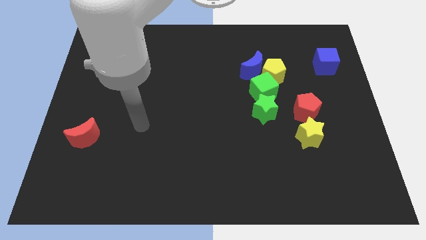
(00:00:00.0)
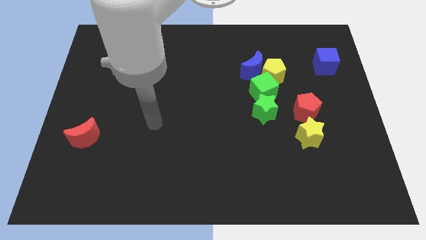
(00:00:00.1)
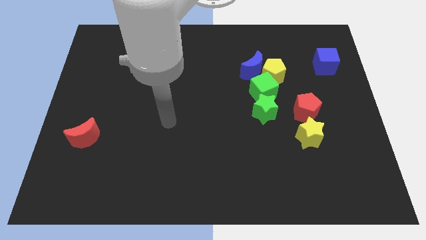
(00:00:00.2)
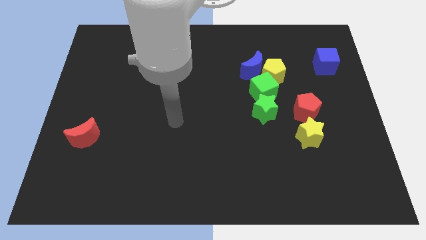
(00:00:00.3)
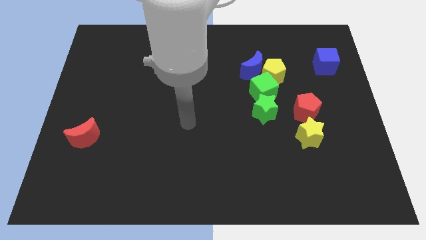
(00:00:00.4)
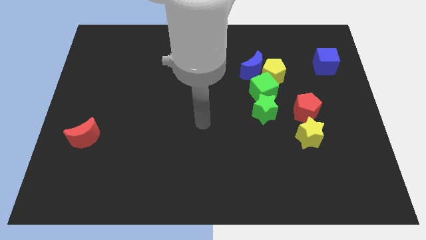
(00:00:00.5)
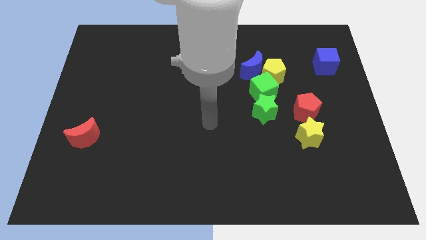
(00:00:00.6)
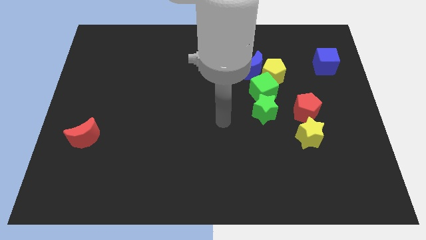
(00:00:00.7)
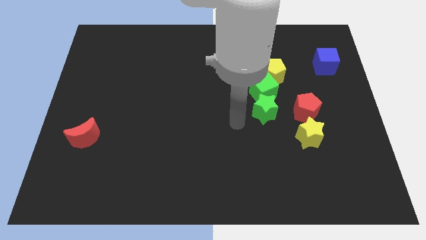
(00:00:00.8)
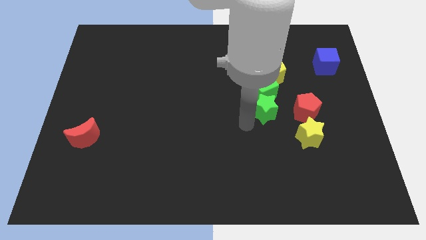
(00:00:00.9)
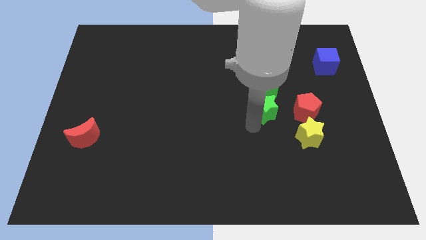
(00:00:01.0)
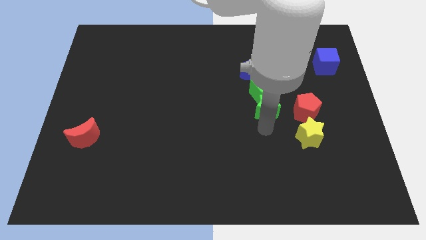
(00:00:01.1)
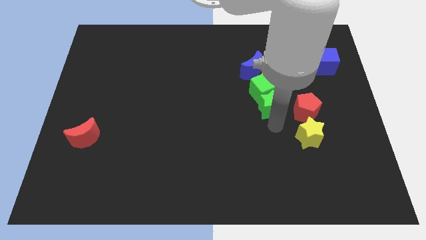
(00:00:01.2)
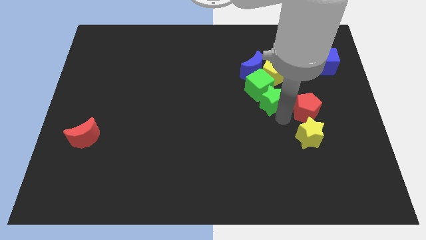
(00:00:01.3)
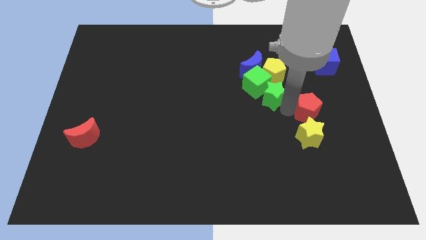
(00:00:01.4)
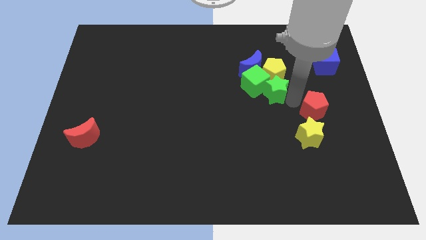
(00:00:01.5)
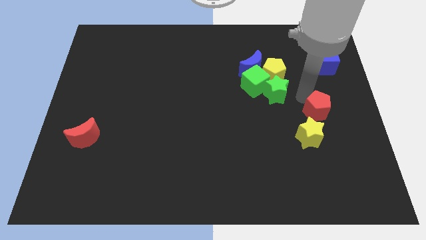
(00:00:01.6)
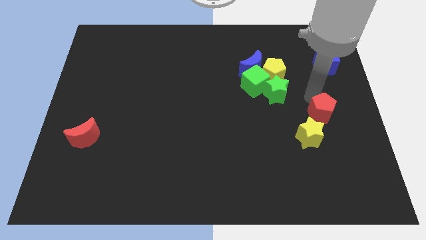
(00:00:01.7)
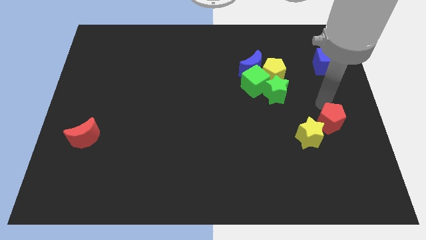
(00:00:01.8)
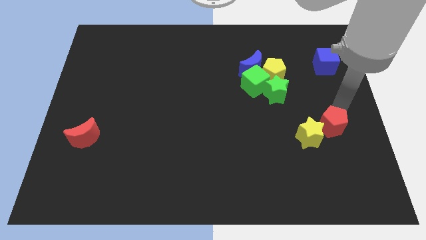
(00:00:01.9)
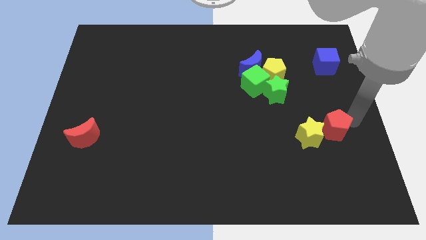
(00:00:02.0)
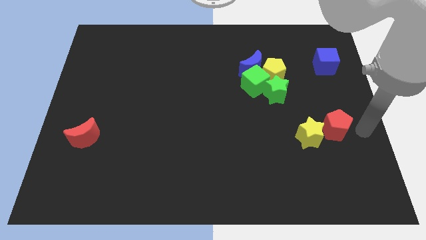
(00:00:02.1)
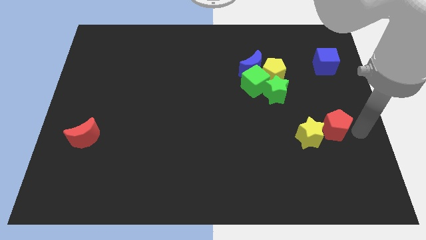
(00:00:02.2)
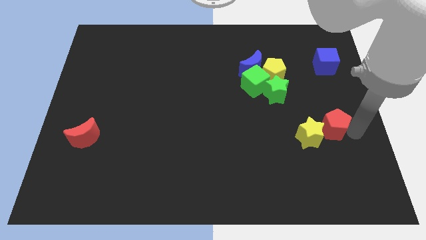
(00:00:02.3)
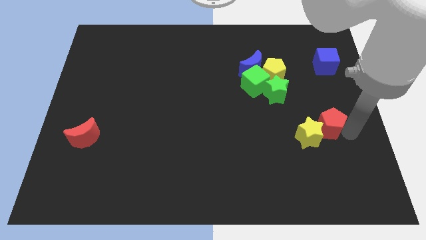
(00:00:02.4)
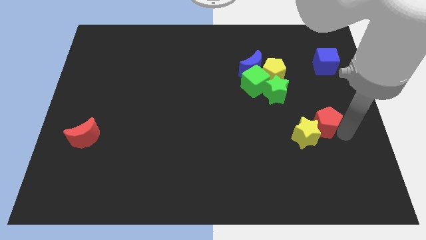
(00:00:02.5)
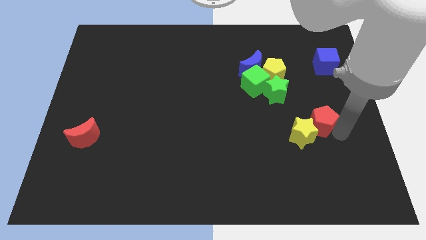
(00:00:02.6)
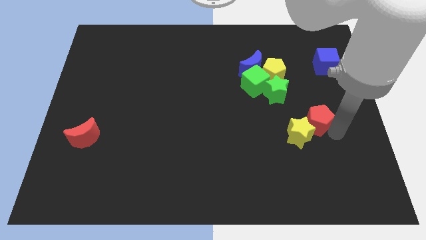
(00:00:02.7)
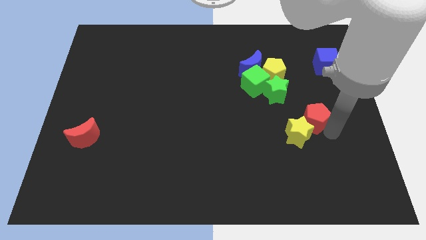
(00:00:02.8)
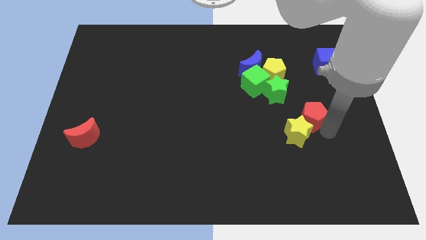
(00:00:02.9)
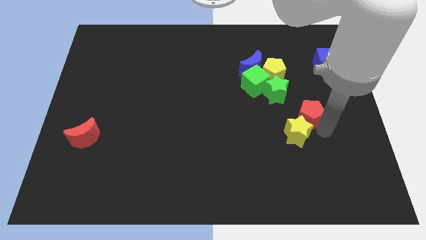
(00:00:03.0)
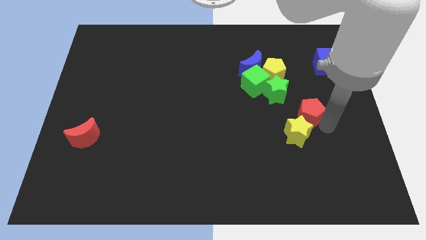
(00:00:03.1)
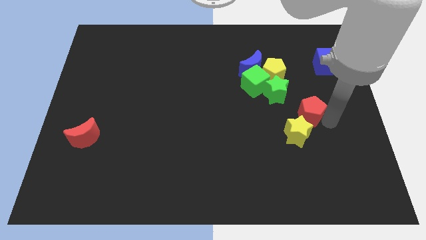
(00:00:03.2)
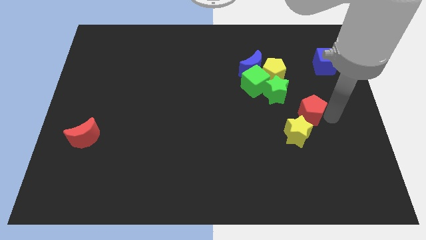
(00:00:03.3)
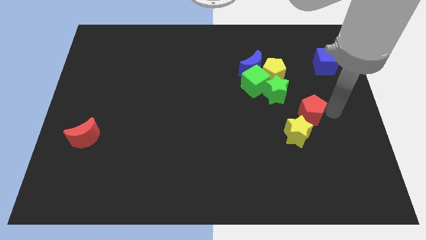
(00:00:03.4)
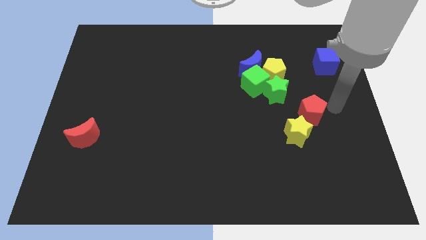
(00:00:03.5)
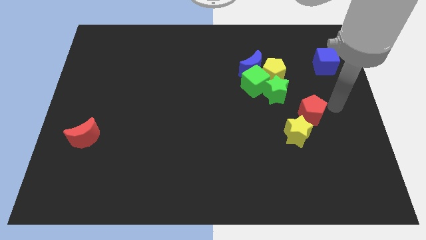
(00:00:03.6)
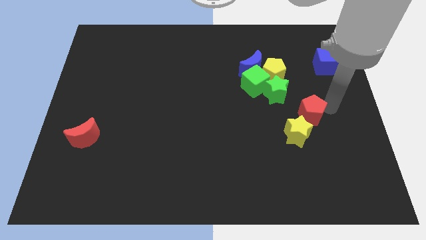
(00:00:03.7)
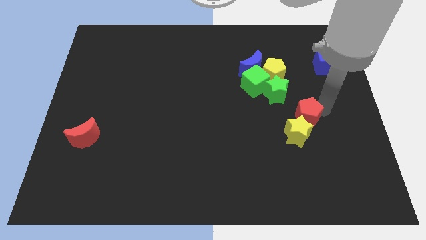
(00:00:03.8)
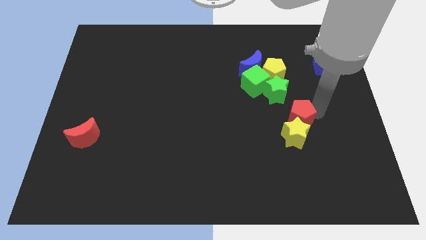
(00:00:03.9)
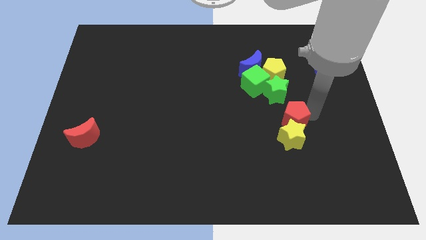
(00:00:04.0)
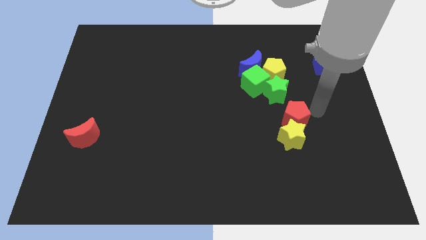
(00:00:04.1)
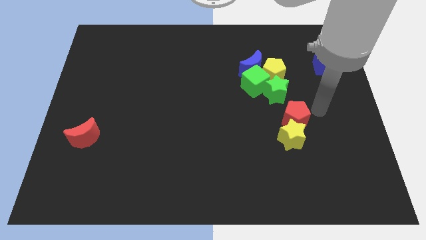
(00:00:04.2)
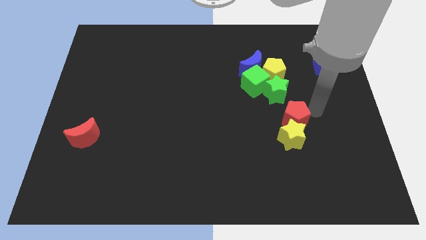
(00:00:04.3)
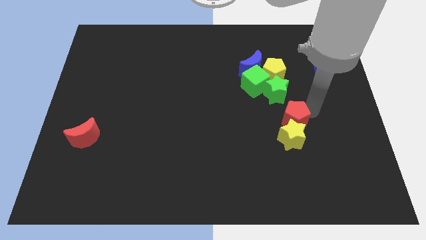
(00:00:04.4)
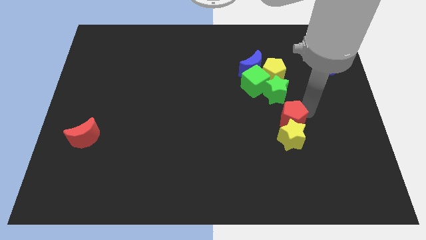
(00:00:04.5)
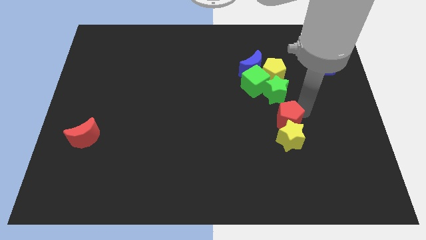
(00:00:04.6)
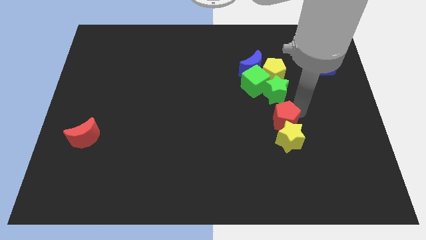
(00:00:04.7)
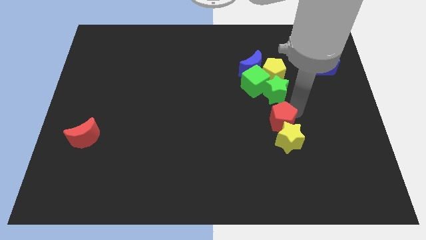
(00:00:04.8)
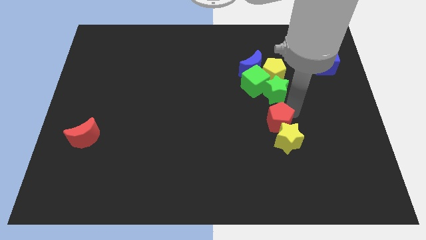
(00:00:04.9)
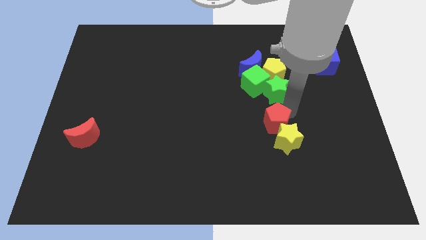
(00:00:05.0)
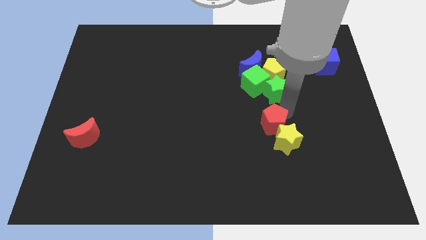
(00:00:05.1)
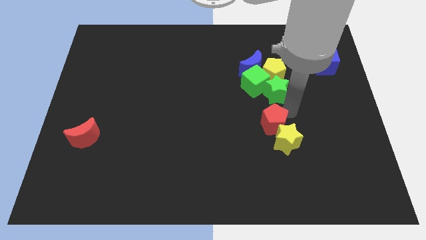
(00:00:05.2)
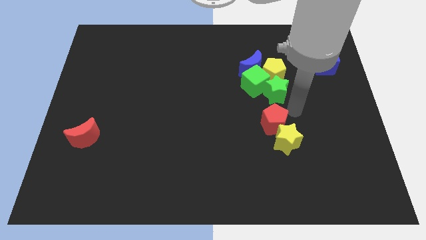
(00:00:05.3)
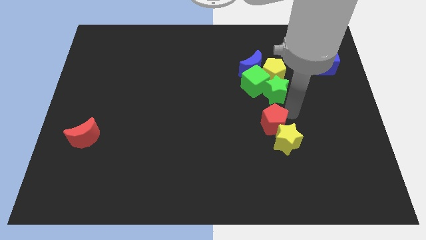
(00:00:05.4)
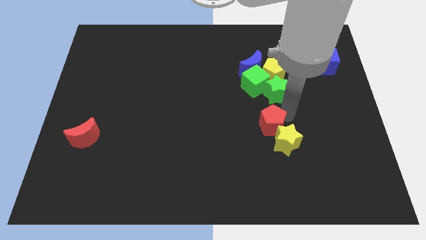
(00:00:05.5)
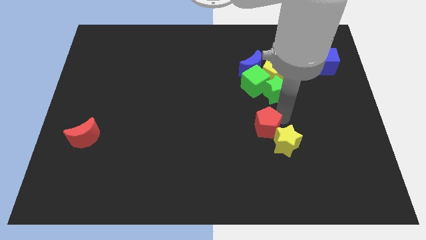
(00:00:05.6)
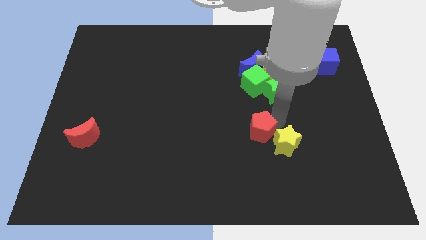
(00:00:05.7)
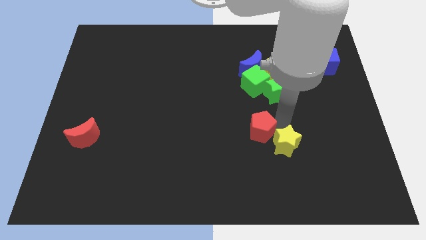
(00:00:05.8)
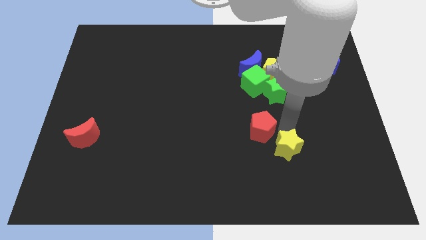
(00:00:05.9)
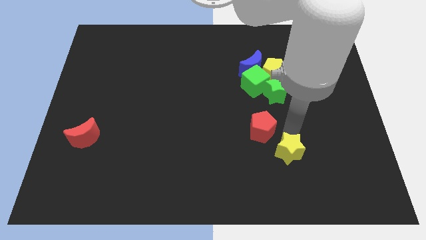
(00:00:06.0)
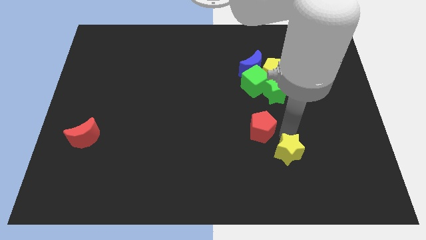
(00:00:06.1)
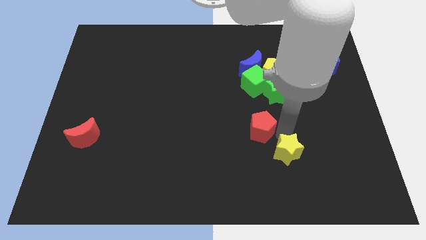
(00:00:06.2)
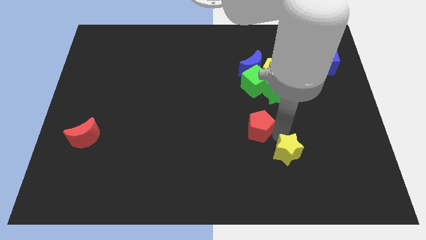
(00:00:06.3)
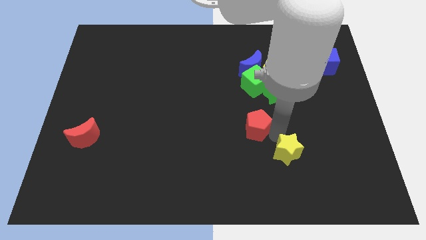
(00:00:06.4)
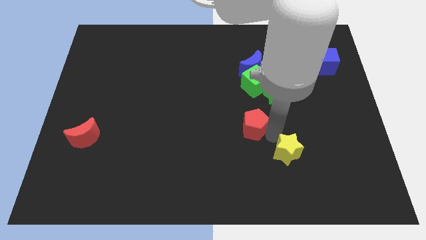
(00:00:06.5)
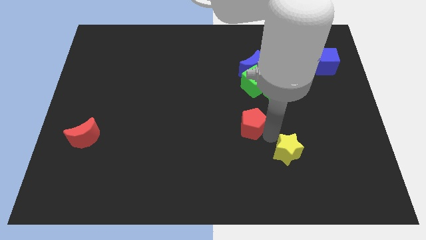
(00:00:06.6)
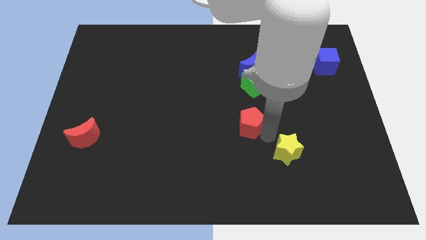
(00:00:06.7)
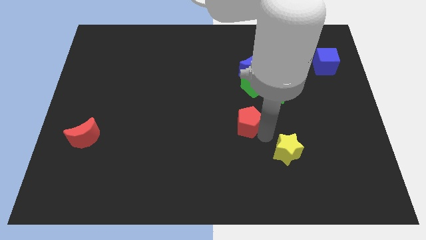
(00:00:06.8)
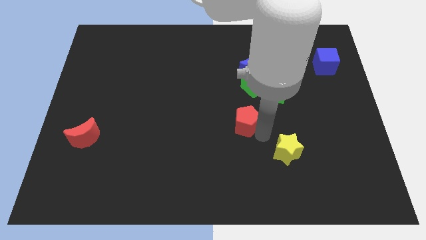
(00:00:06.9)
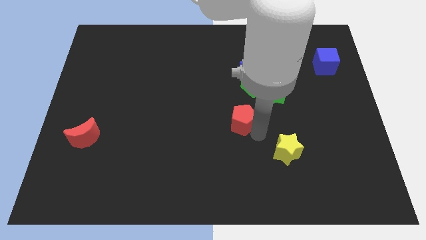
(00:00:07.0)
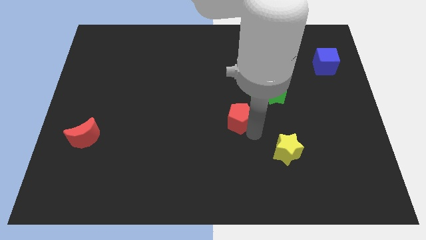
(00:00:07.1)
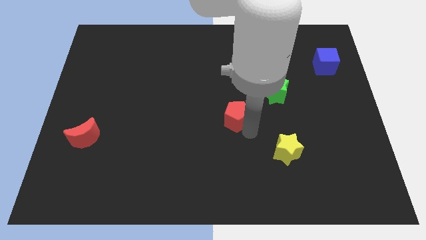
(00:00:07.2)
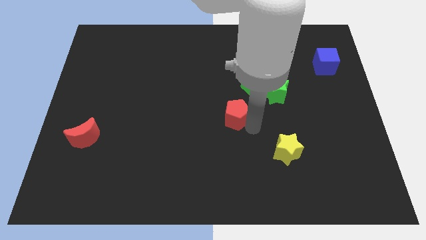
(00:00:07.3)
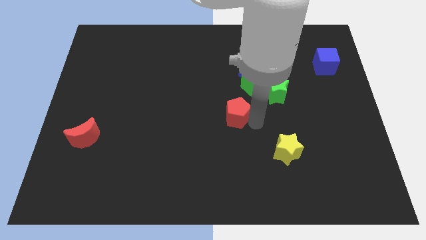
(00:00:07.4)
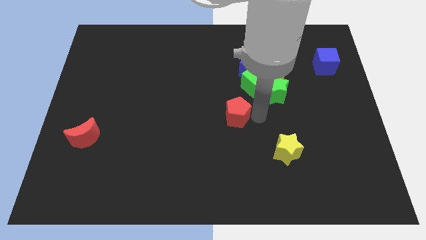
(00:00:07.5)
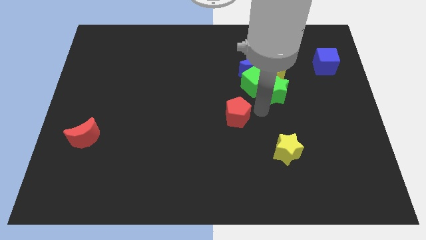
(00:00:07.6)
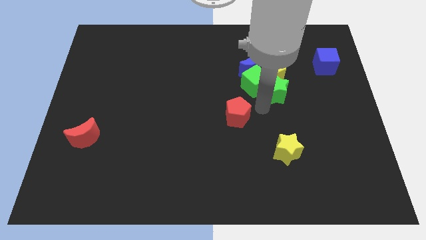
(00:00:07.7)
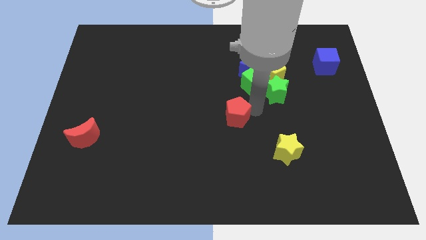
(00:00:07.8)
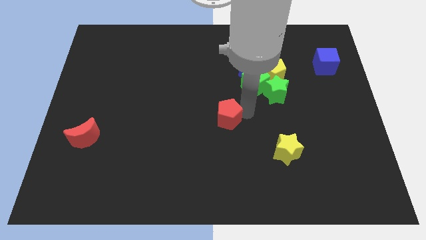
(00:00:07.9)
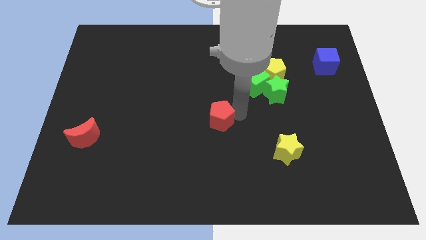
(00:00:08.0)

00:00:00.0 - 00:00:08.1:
push the red pentagon to the left

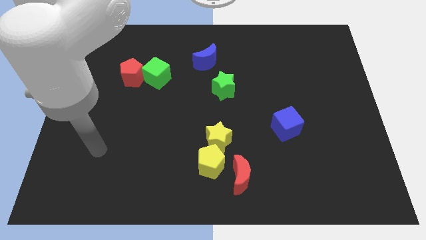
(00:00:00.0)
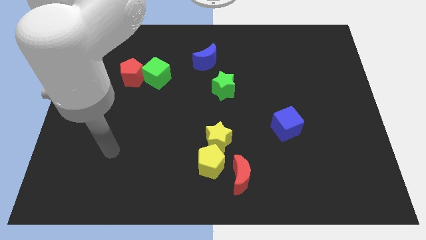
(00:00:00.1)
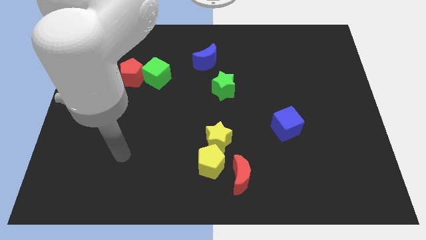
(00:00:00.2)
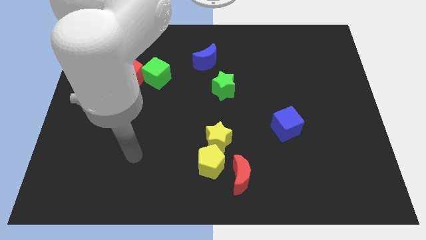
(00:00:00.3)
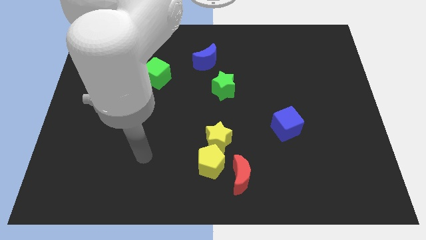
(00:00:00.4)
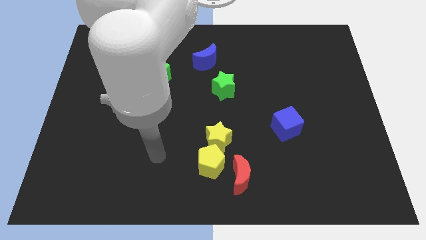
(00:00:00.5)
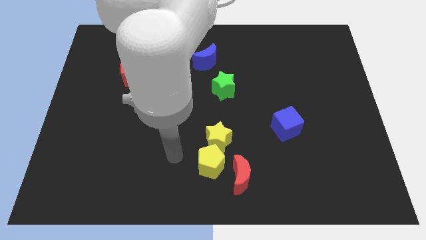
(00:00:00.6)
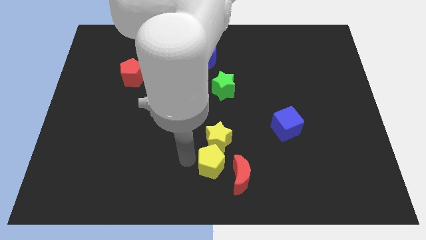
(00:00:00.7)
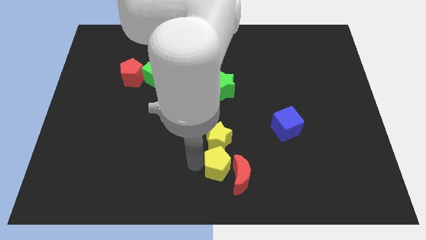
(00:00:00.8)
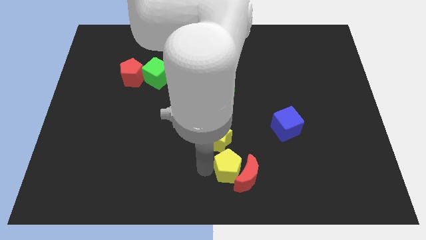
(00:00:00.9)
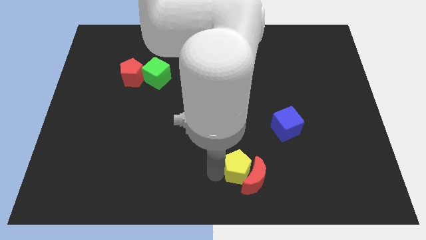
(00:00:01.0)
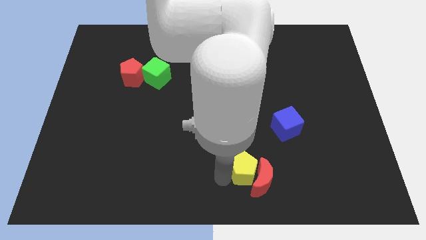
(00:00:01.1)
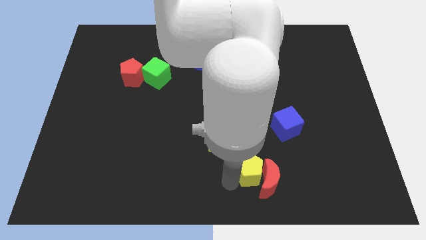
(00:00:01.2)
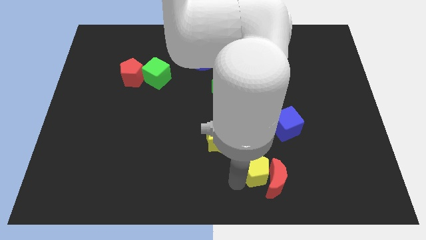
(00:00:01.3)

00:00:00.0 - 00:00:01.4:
move the red moon to the right a little bit
